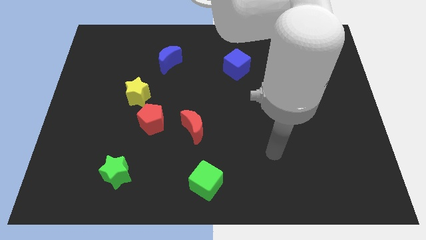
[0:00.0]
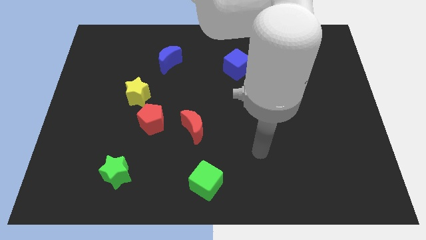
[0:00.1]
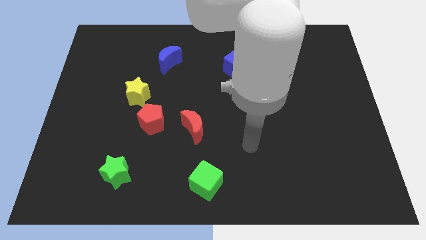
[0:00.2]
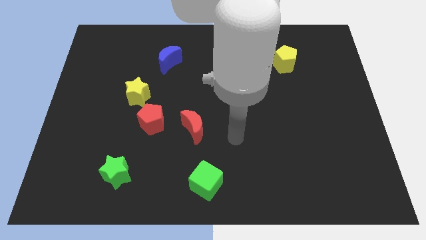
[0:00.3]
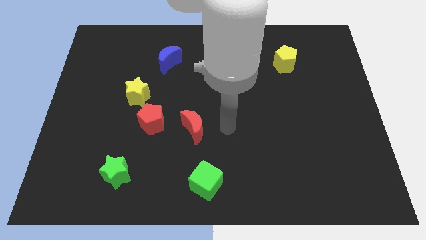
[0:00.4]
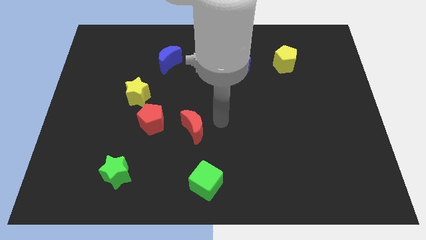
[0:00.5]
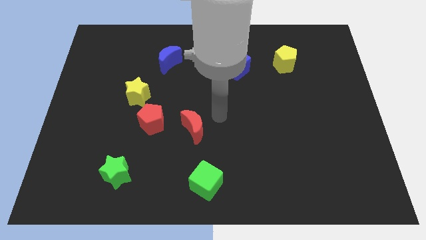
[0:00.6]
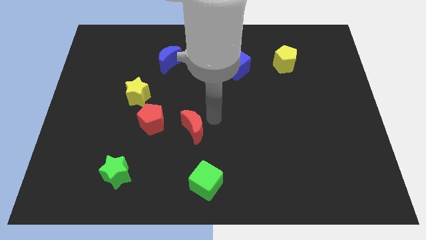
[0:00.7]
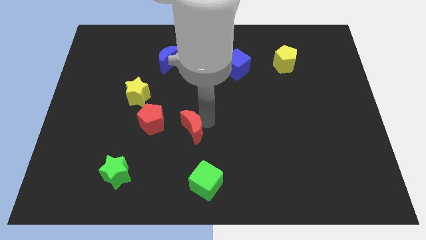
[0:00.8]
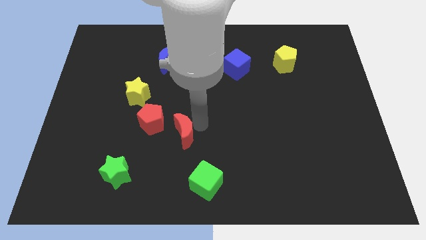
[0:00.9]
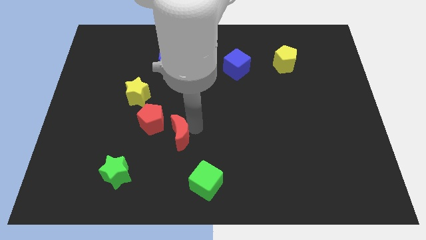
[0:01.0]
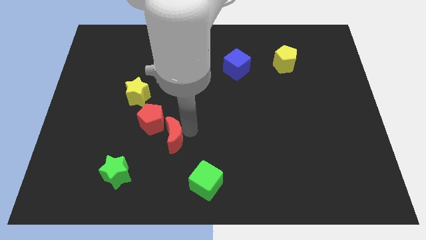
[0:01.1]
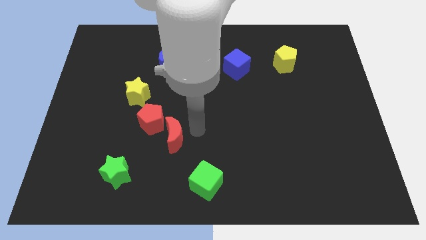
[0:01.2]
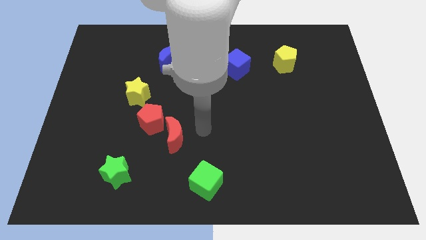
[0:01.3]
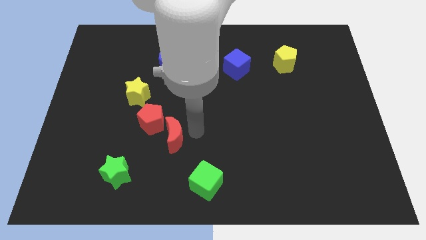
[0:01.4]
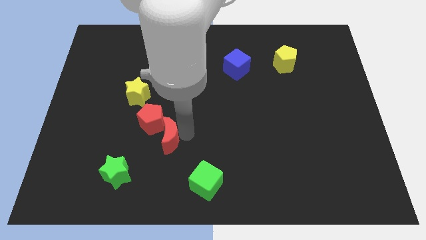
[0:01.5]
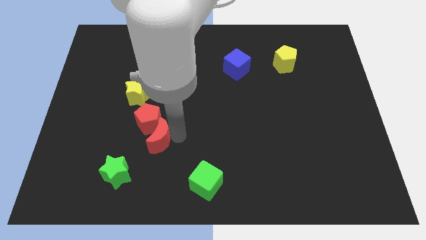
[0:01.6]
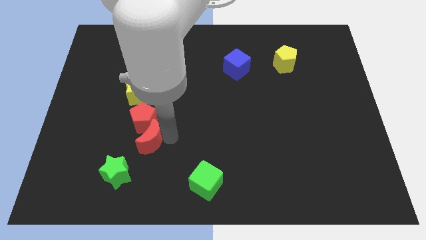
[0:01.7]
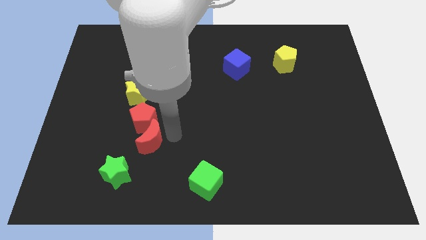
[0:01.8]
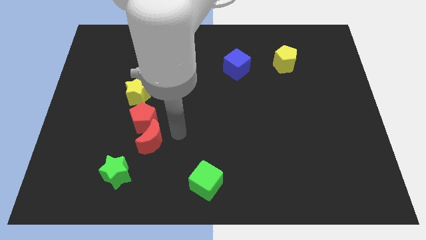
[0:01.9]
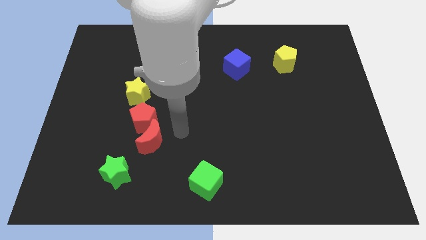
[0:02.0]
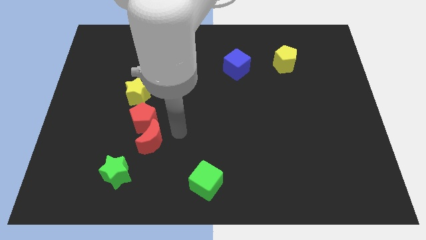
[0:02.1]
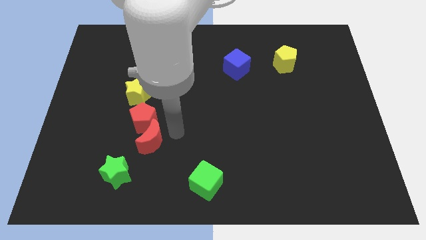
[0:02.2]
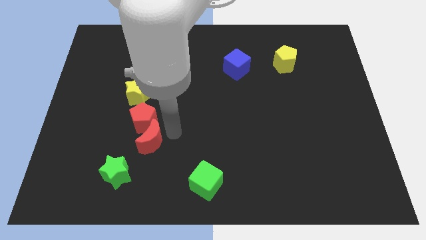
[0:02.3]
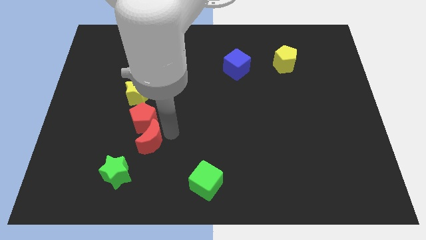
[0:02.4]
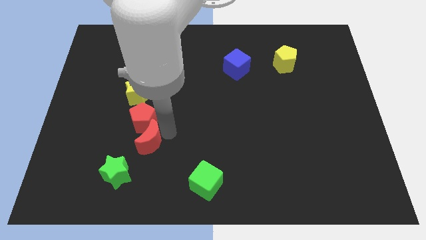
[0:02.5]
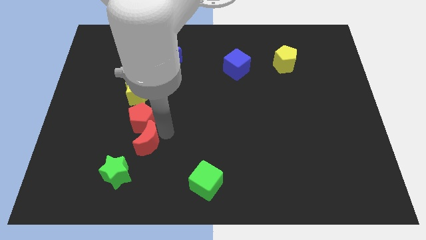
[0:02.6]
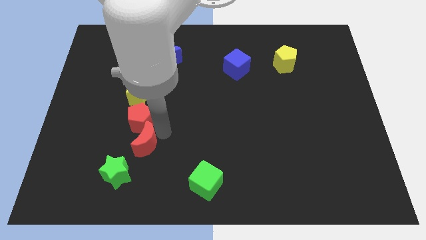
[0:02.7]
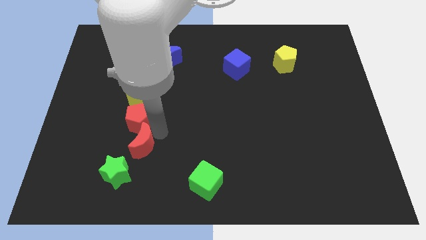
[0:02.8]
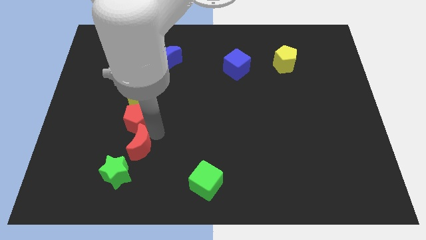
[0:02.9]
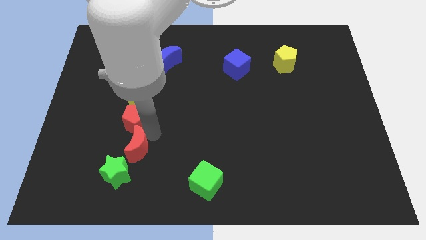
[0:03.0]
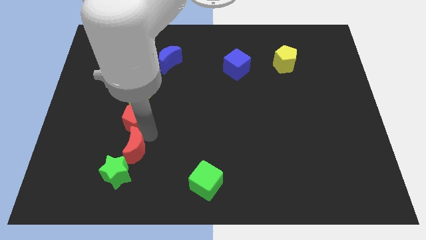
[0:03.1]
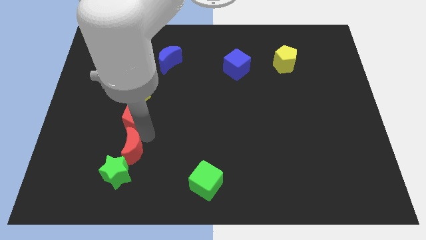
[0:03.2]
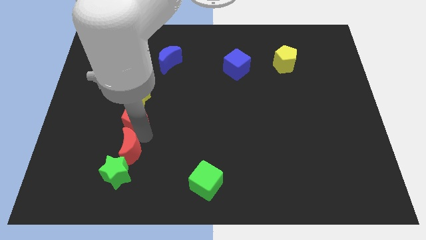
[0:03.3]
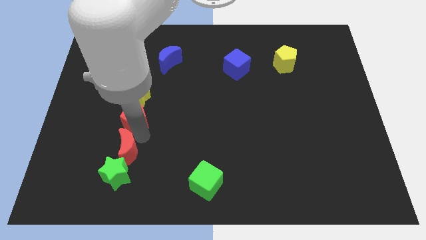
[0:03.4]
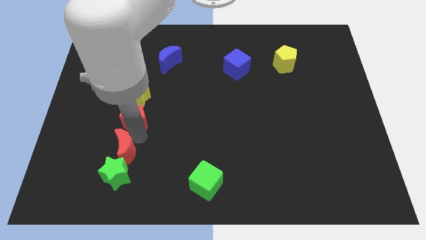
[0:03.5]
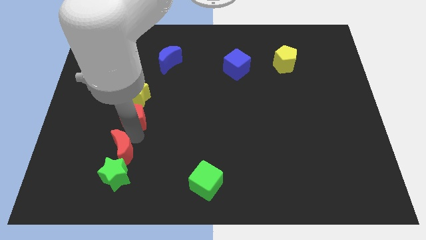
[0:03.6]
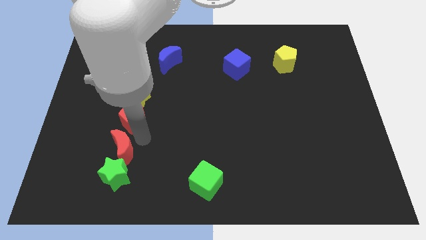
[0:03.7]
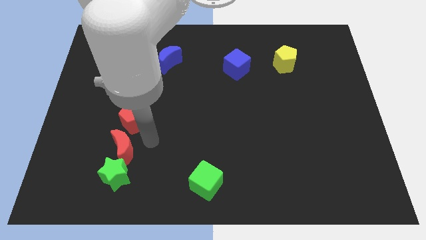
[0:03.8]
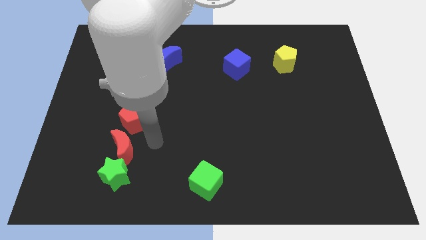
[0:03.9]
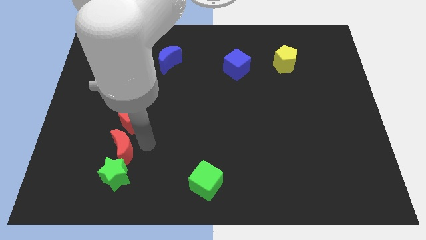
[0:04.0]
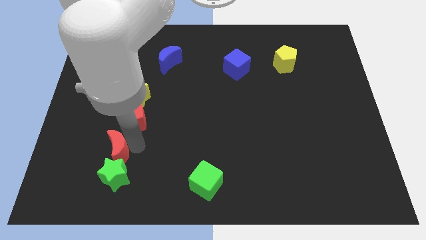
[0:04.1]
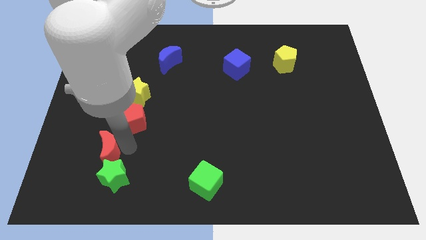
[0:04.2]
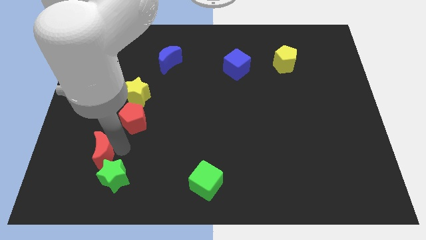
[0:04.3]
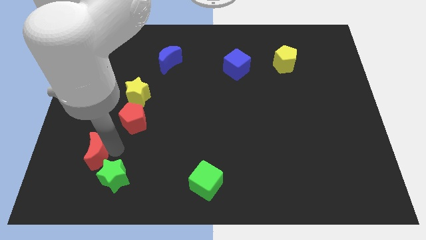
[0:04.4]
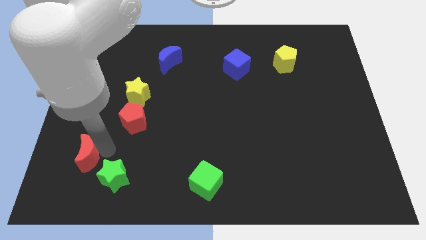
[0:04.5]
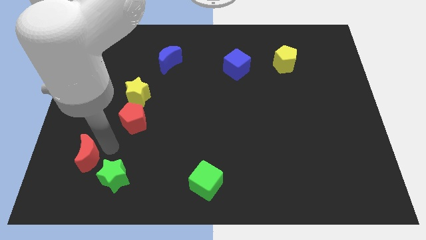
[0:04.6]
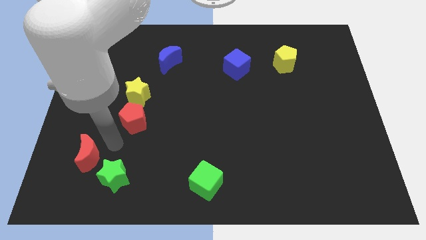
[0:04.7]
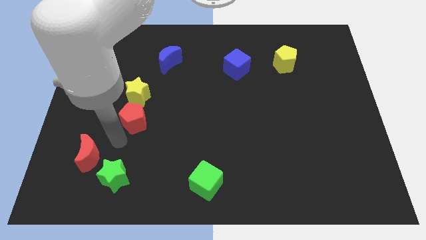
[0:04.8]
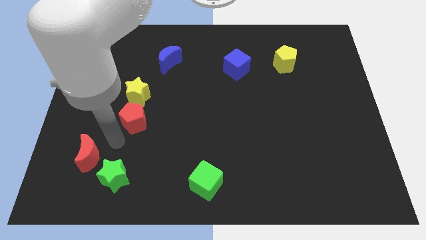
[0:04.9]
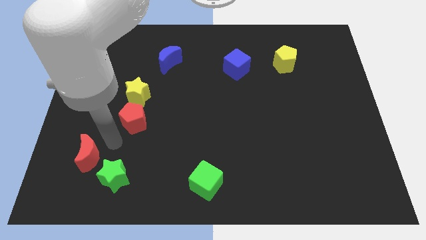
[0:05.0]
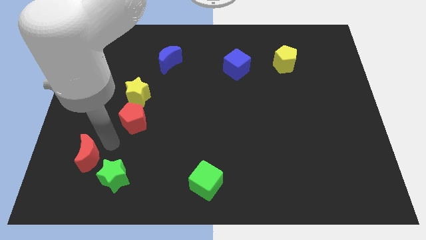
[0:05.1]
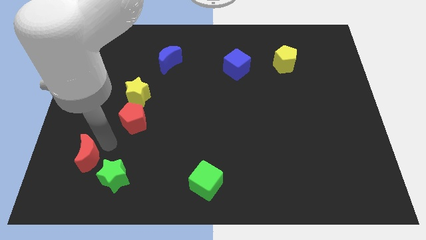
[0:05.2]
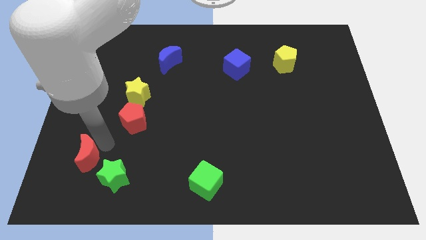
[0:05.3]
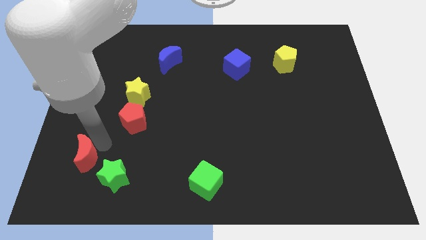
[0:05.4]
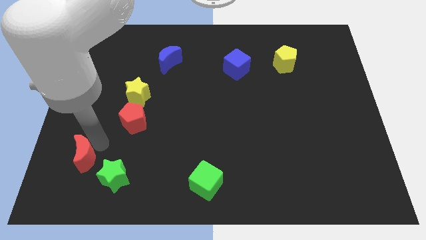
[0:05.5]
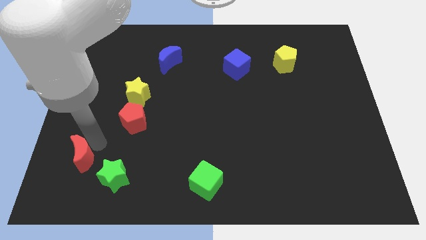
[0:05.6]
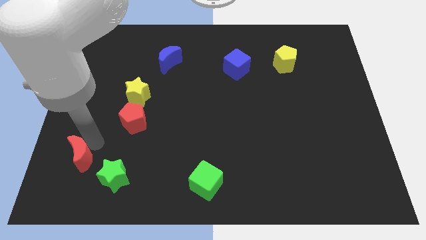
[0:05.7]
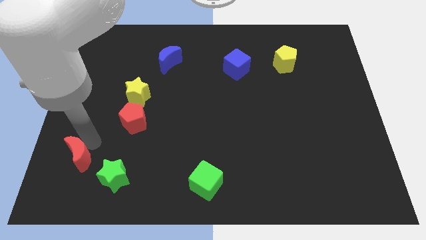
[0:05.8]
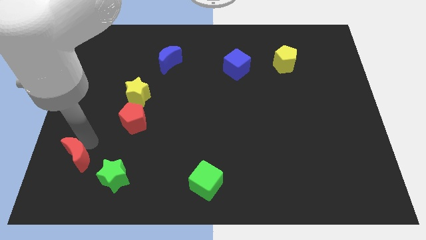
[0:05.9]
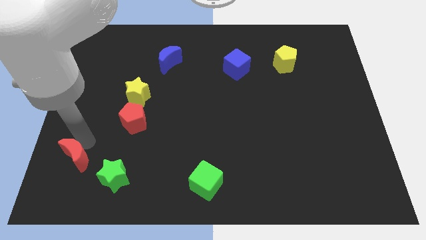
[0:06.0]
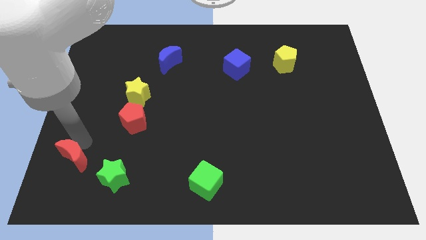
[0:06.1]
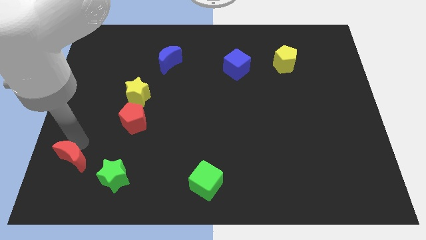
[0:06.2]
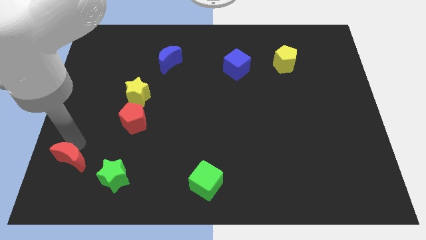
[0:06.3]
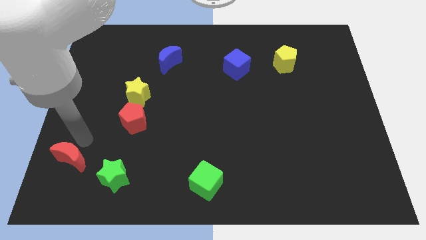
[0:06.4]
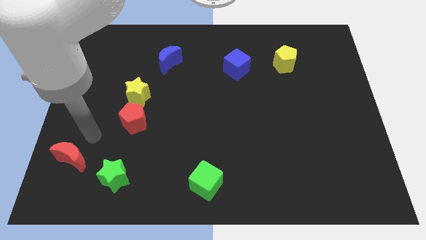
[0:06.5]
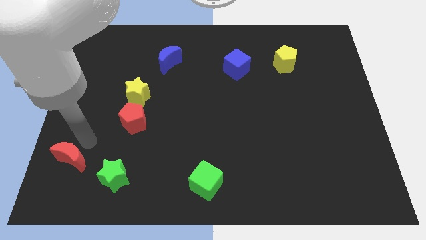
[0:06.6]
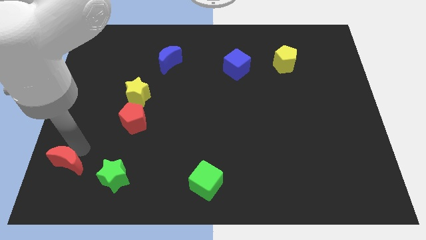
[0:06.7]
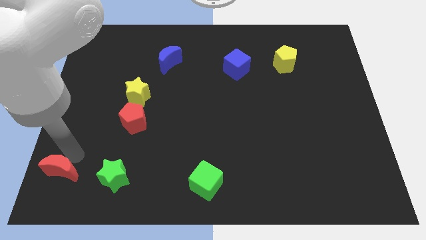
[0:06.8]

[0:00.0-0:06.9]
put the red moon to the lower left corner

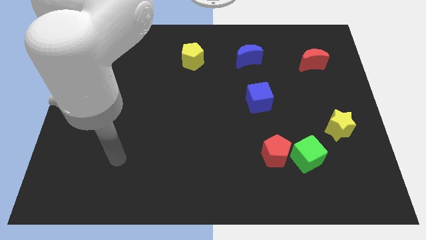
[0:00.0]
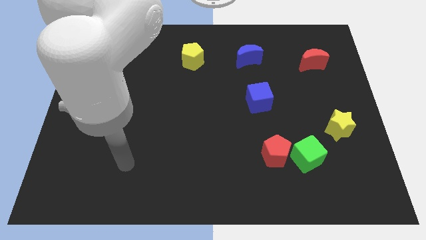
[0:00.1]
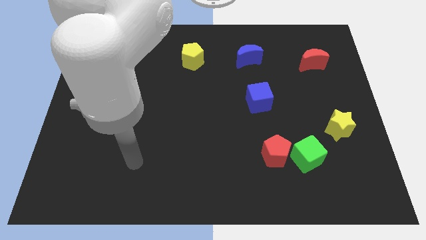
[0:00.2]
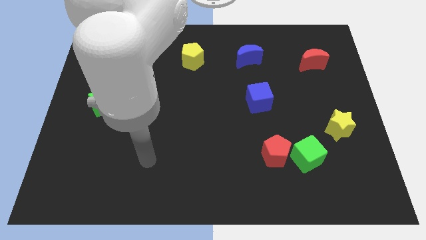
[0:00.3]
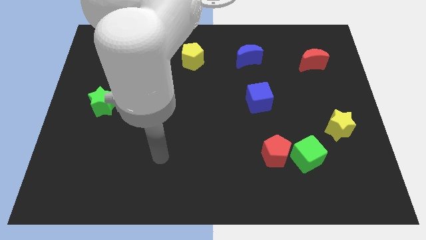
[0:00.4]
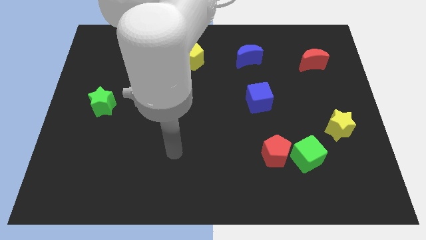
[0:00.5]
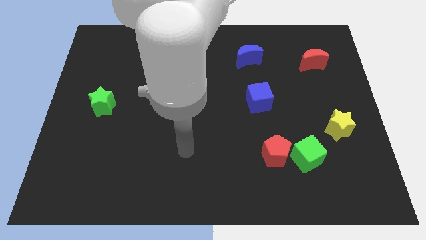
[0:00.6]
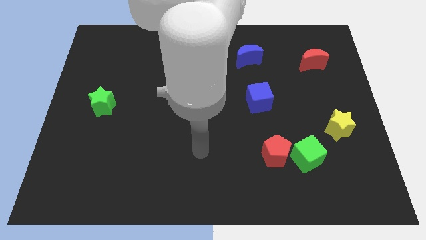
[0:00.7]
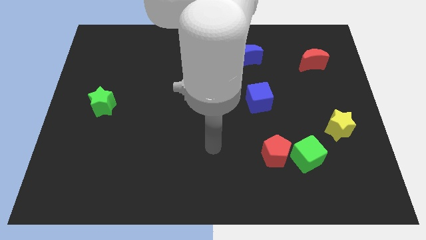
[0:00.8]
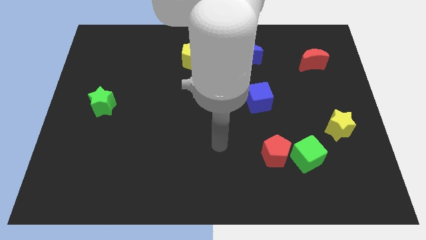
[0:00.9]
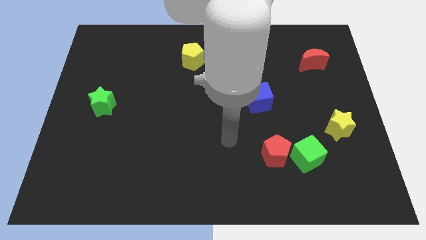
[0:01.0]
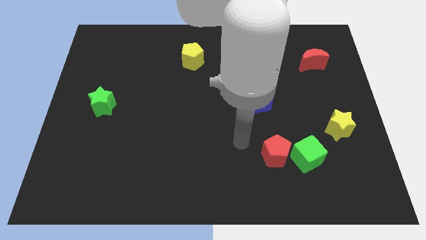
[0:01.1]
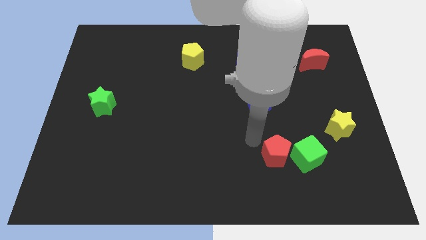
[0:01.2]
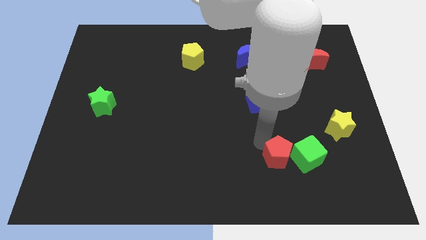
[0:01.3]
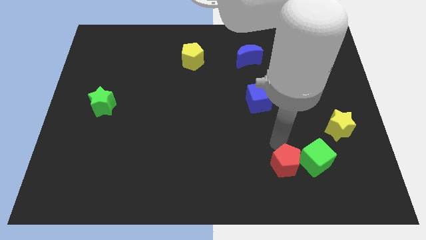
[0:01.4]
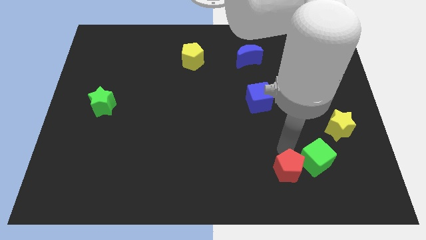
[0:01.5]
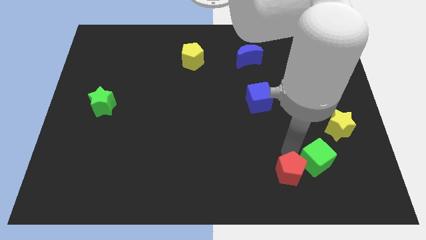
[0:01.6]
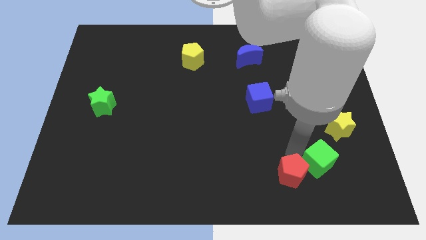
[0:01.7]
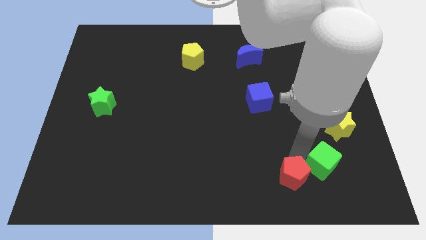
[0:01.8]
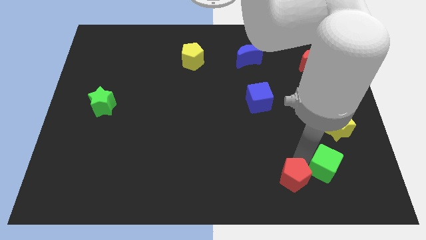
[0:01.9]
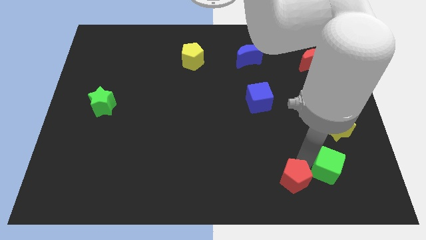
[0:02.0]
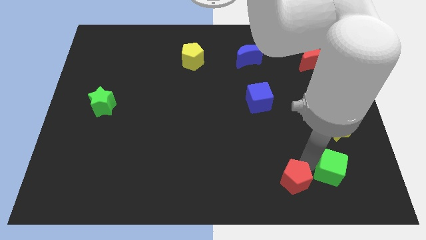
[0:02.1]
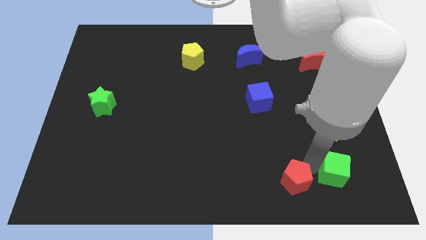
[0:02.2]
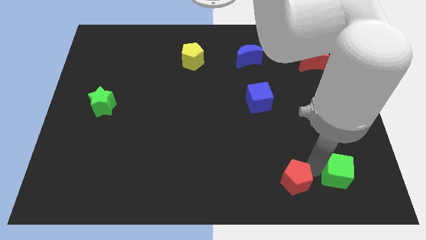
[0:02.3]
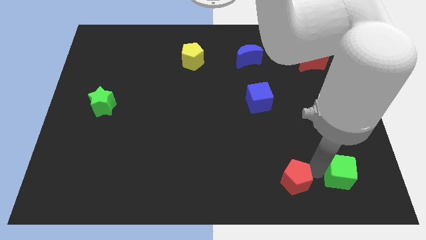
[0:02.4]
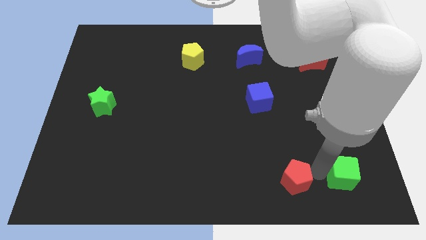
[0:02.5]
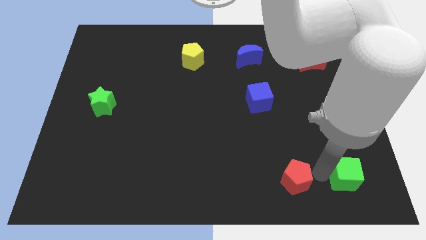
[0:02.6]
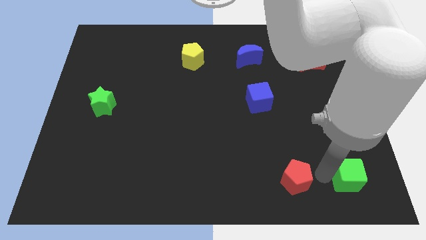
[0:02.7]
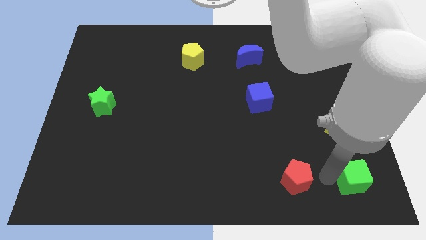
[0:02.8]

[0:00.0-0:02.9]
push the green cube to the bottom right
